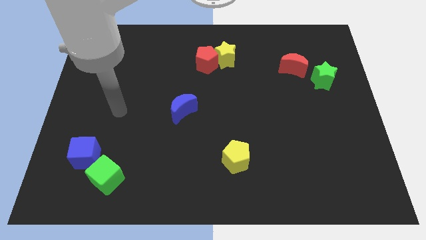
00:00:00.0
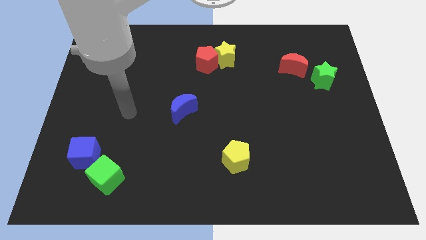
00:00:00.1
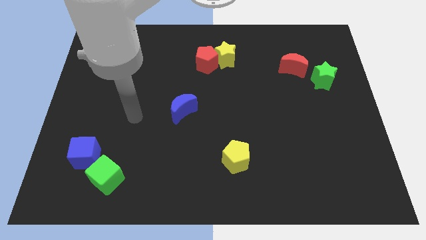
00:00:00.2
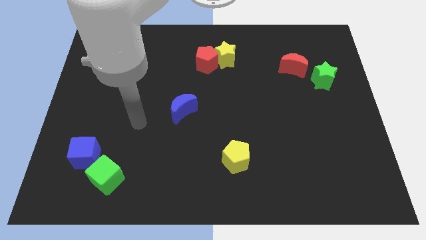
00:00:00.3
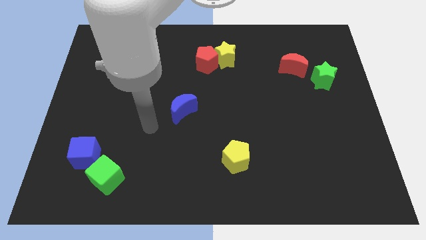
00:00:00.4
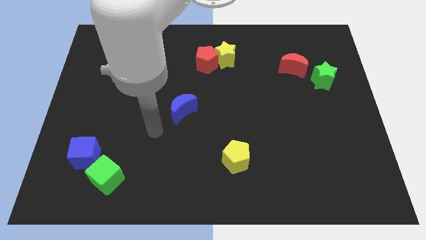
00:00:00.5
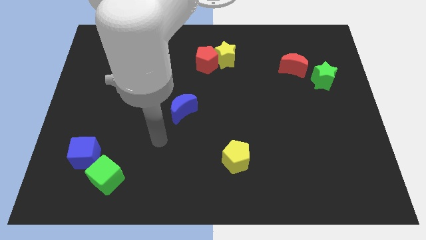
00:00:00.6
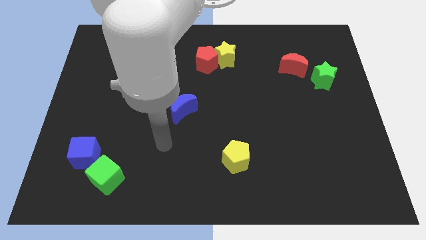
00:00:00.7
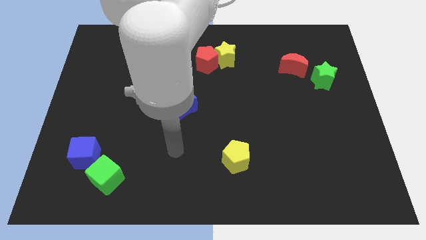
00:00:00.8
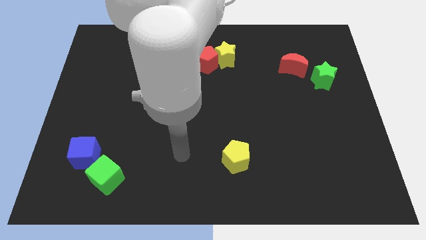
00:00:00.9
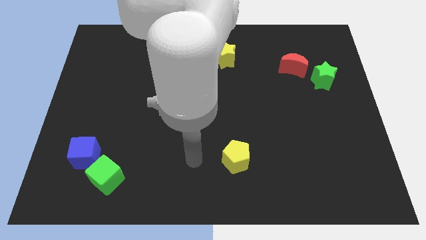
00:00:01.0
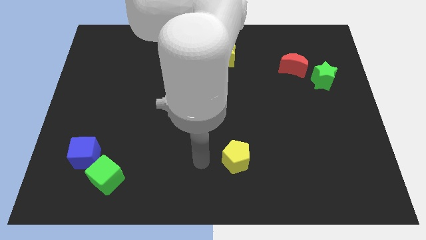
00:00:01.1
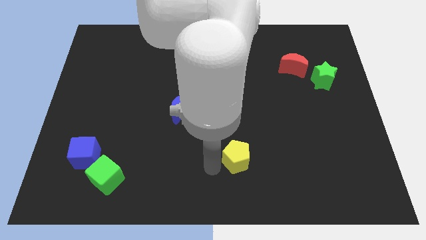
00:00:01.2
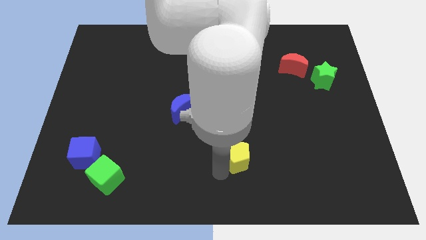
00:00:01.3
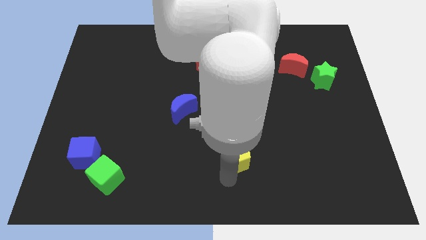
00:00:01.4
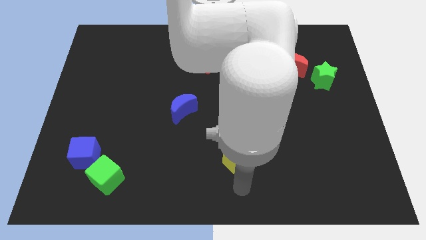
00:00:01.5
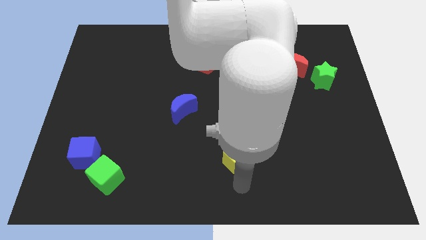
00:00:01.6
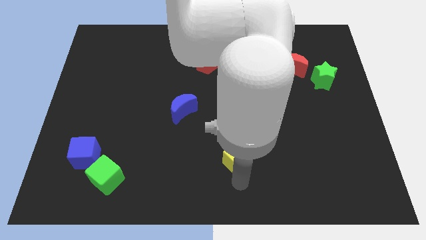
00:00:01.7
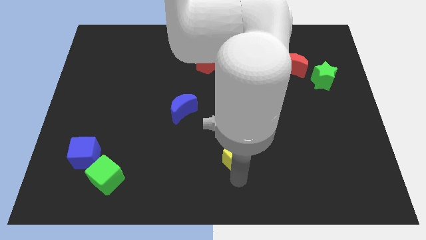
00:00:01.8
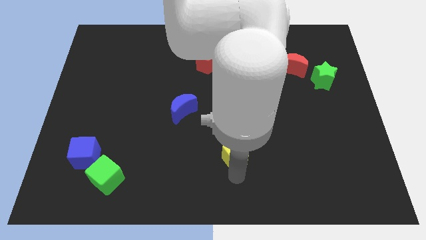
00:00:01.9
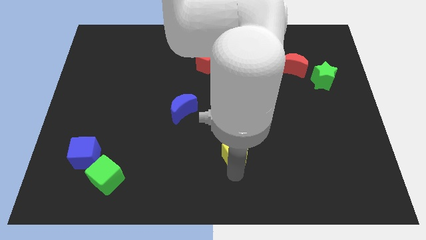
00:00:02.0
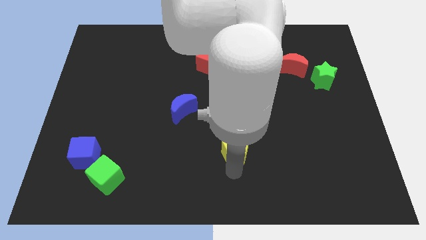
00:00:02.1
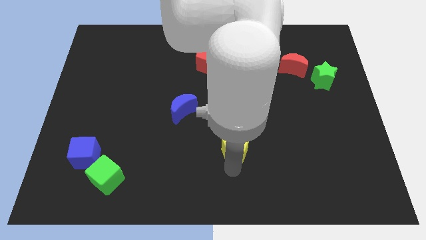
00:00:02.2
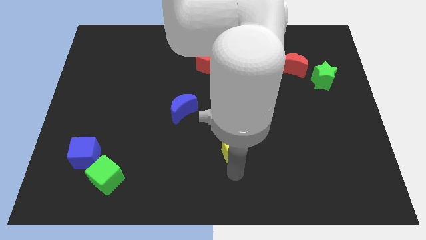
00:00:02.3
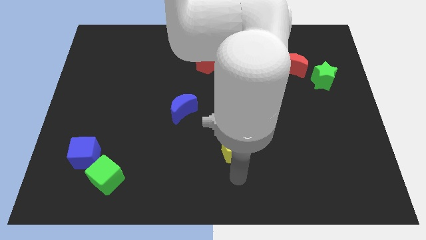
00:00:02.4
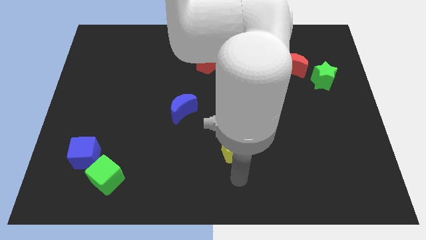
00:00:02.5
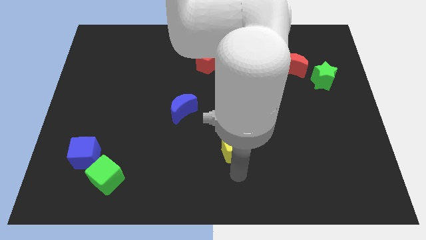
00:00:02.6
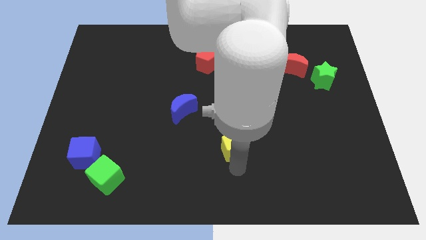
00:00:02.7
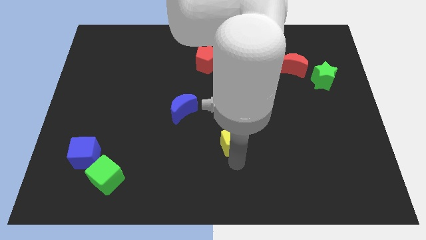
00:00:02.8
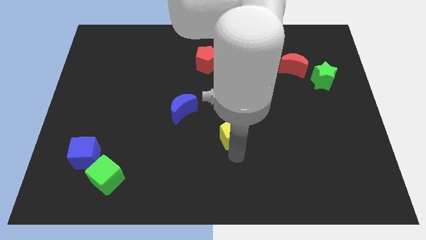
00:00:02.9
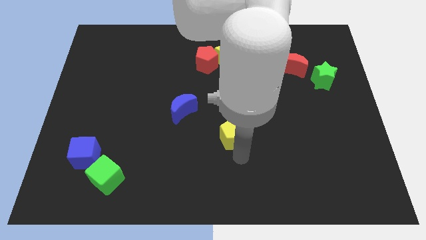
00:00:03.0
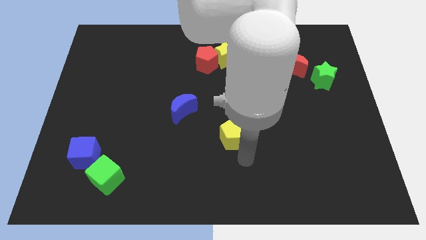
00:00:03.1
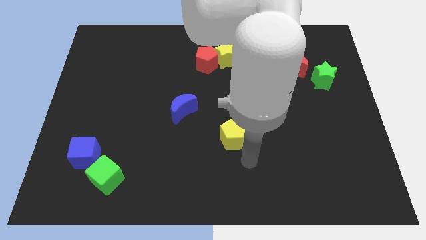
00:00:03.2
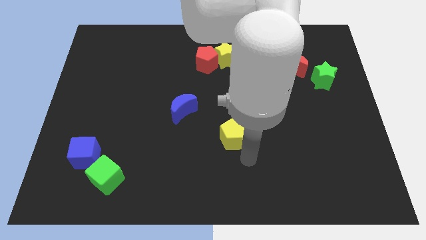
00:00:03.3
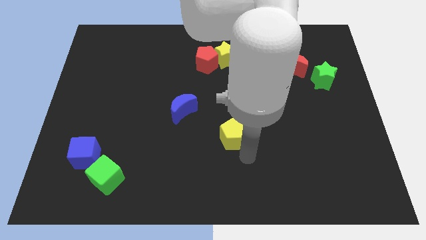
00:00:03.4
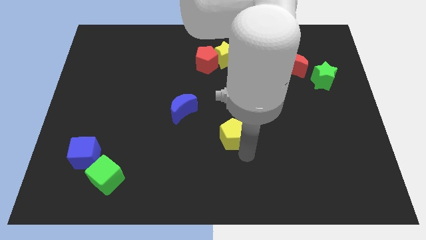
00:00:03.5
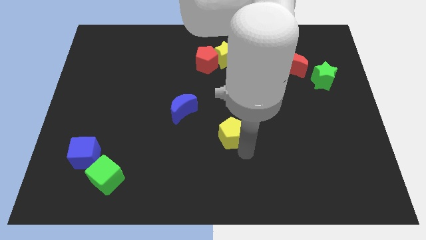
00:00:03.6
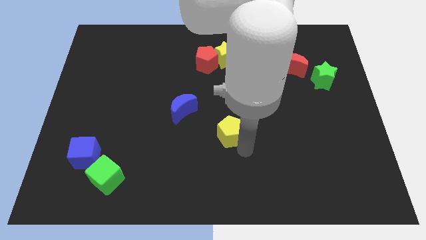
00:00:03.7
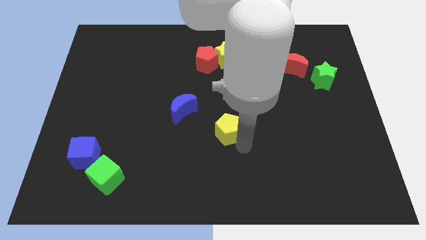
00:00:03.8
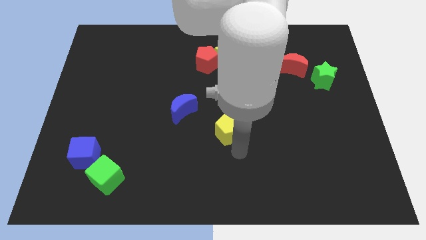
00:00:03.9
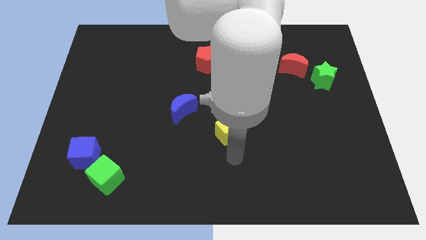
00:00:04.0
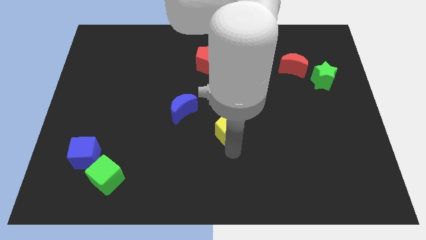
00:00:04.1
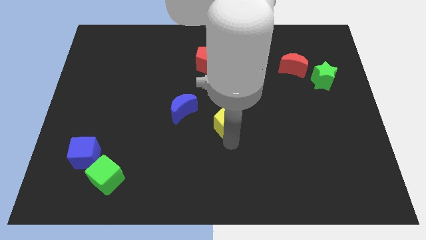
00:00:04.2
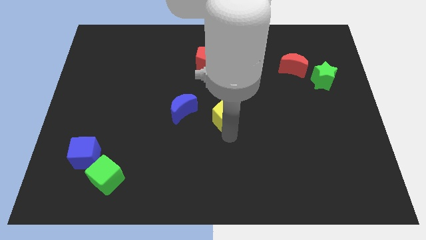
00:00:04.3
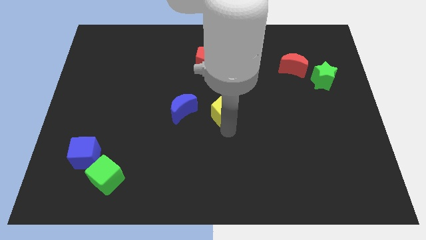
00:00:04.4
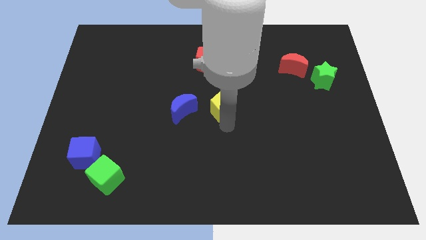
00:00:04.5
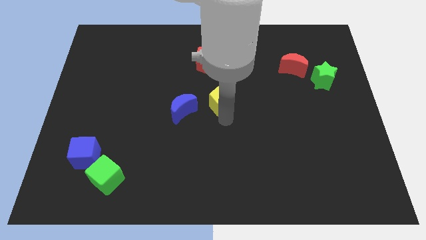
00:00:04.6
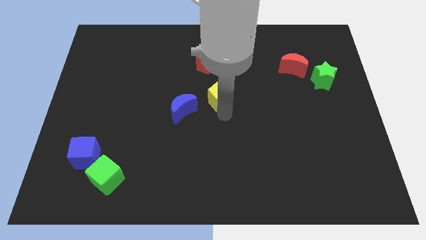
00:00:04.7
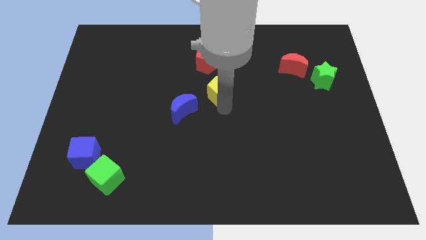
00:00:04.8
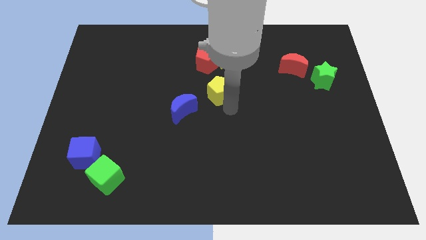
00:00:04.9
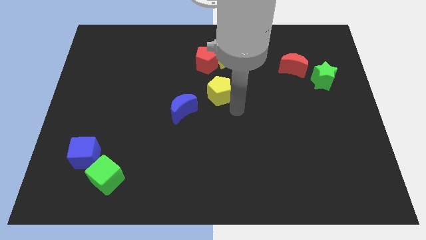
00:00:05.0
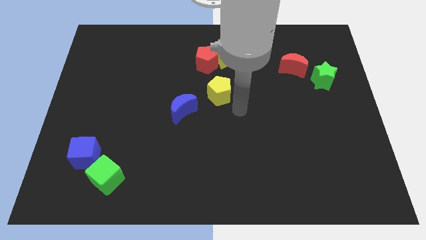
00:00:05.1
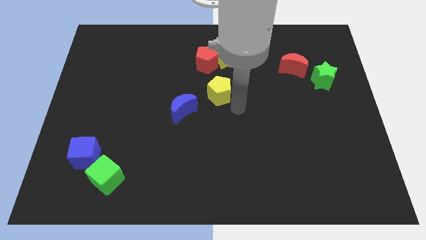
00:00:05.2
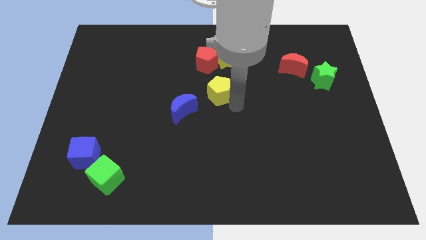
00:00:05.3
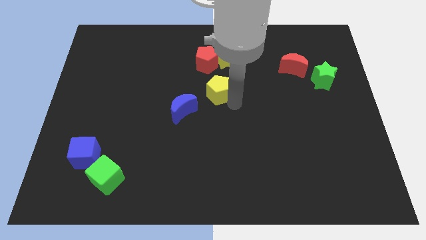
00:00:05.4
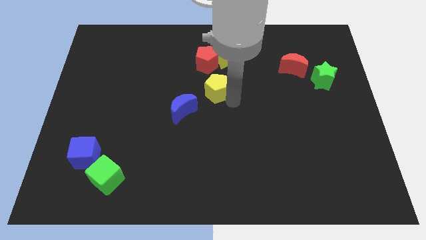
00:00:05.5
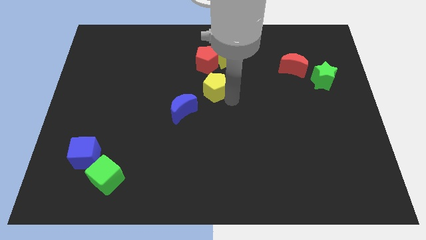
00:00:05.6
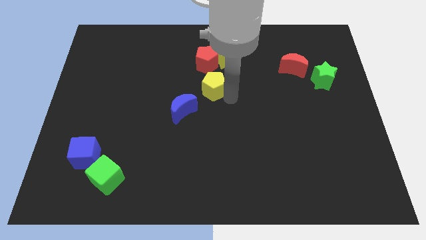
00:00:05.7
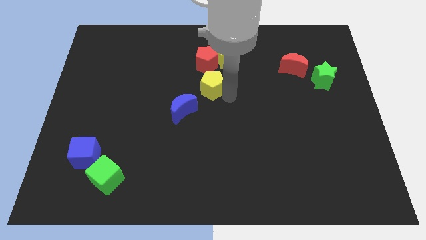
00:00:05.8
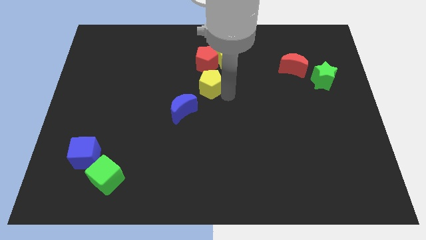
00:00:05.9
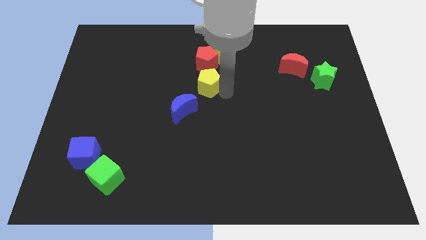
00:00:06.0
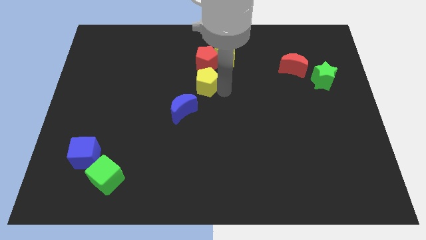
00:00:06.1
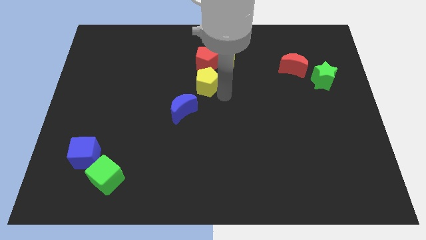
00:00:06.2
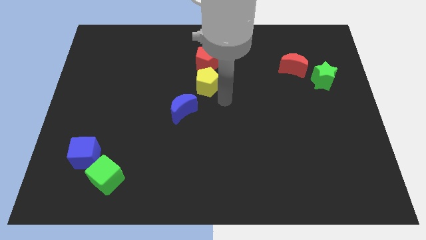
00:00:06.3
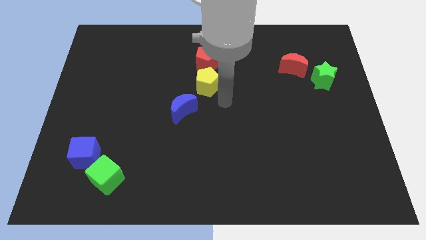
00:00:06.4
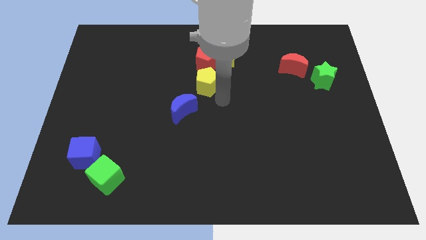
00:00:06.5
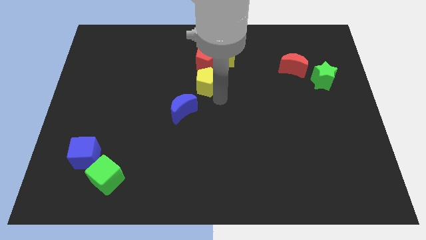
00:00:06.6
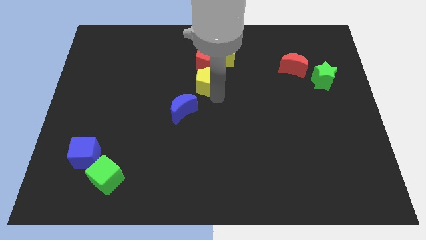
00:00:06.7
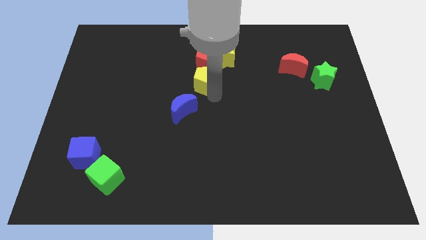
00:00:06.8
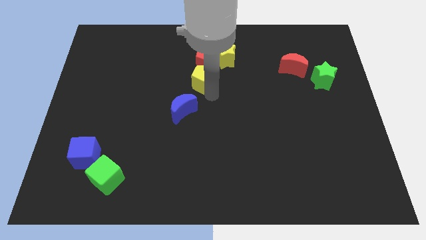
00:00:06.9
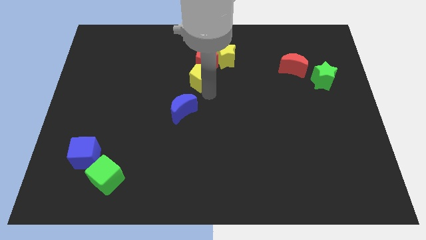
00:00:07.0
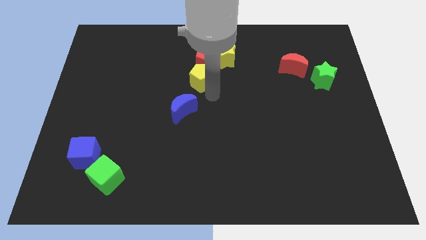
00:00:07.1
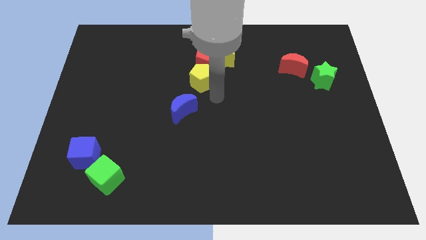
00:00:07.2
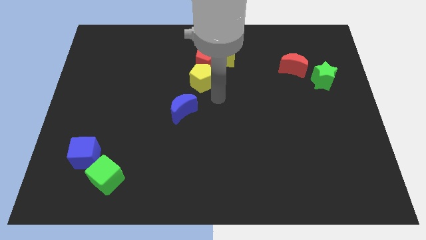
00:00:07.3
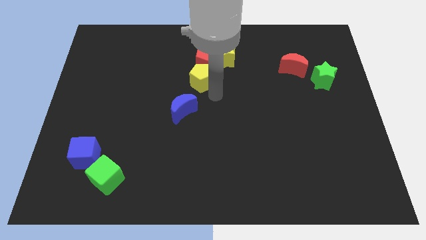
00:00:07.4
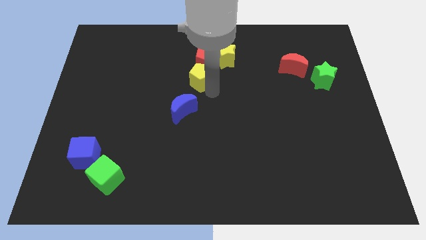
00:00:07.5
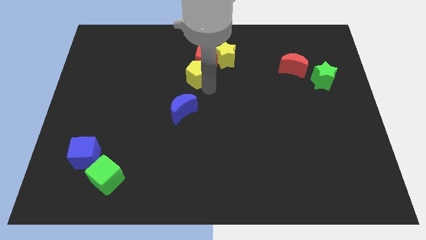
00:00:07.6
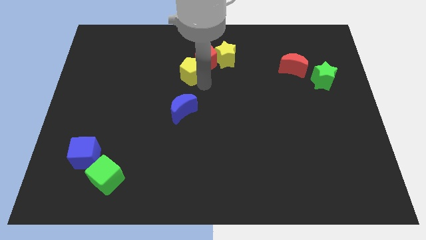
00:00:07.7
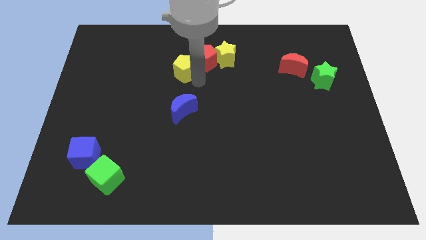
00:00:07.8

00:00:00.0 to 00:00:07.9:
push the yellow pentagon left of the yellow star
